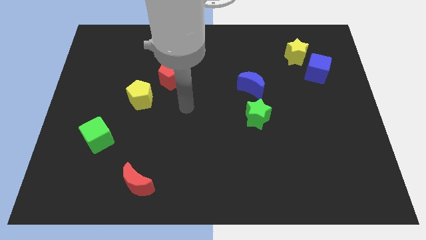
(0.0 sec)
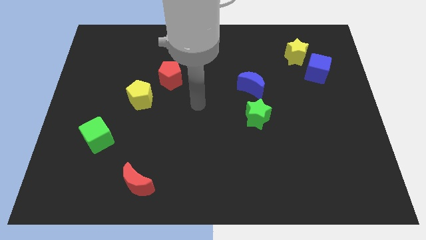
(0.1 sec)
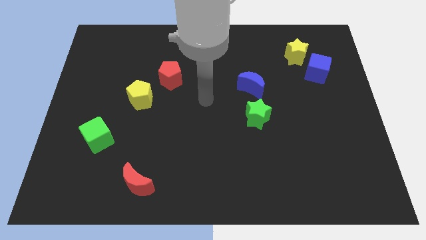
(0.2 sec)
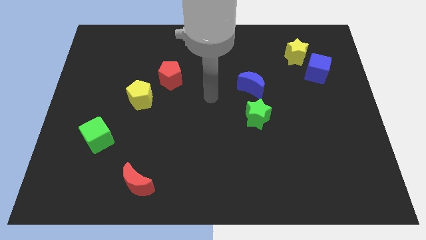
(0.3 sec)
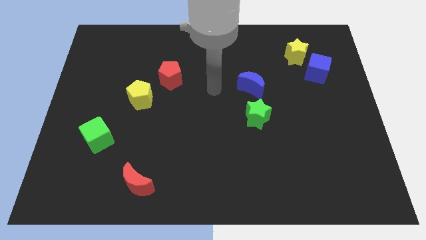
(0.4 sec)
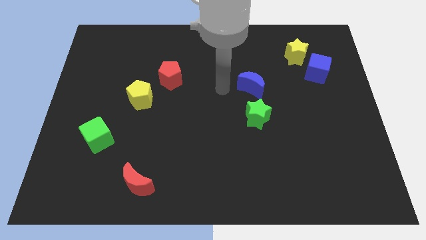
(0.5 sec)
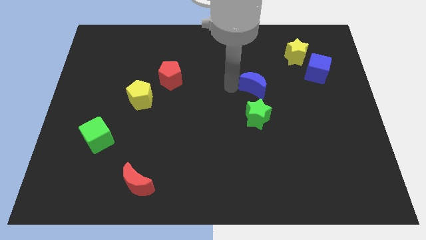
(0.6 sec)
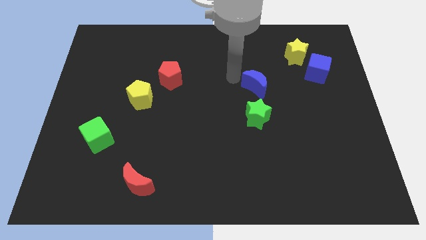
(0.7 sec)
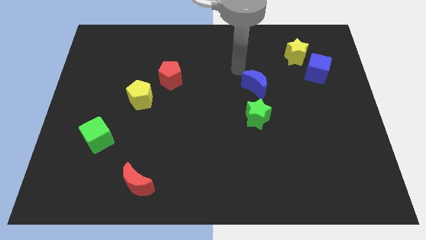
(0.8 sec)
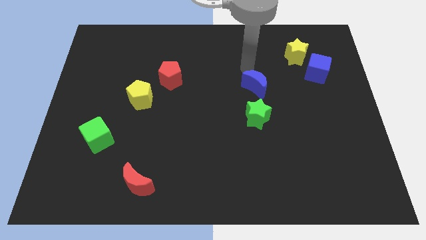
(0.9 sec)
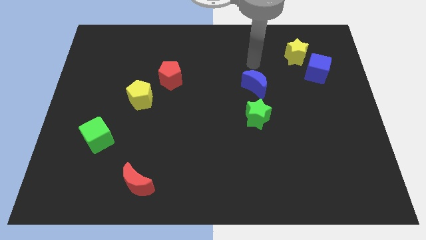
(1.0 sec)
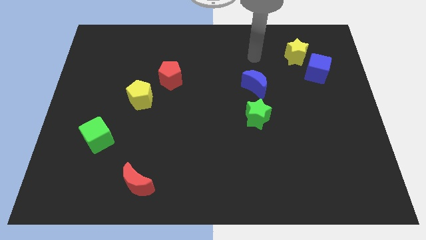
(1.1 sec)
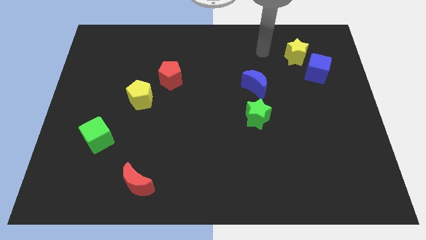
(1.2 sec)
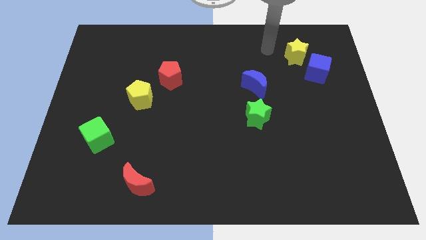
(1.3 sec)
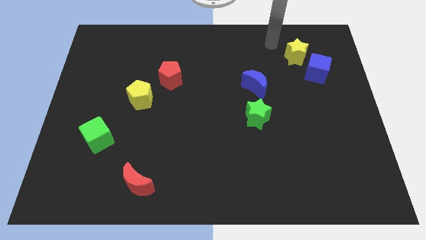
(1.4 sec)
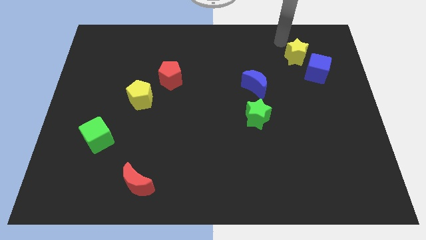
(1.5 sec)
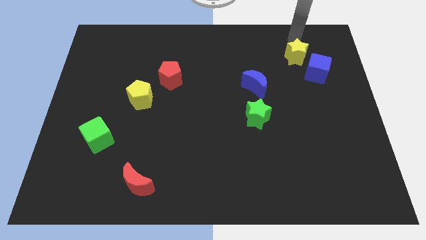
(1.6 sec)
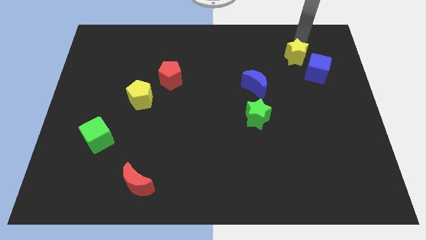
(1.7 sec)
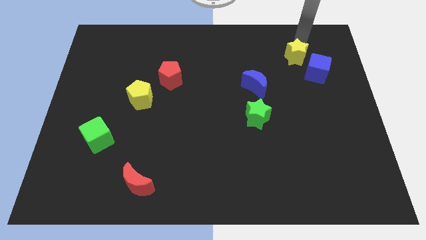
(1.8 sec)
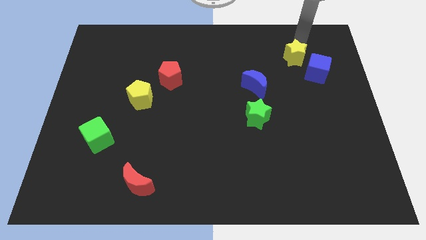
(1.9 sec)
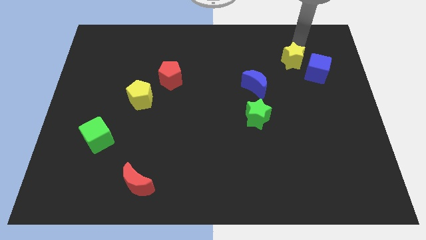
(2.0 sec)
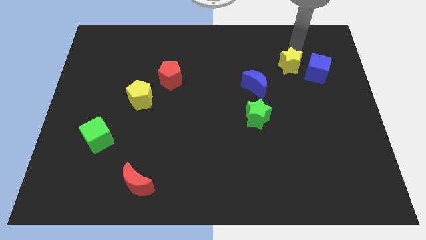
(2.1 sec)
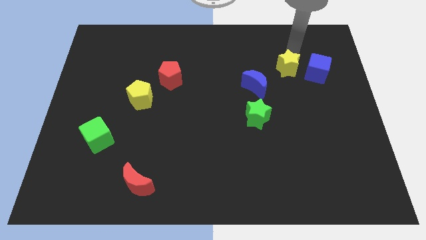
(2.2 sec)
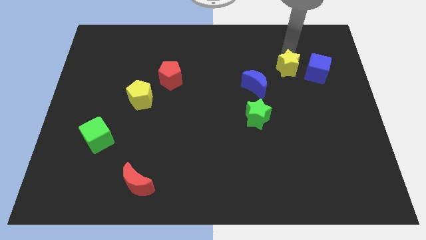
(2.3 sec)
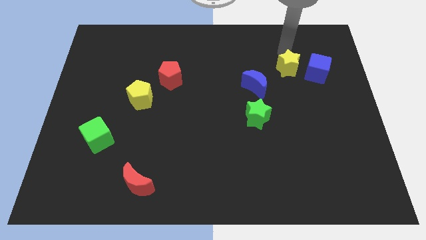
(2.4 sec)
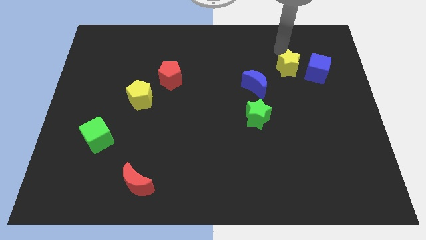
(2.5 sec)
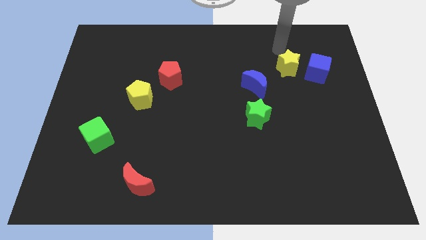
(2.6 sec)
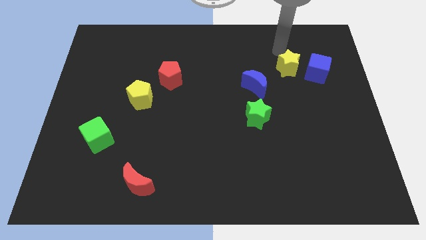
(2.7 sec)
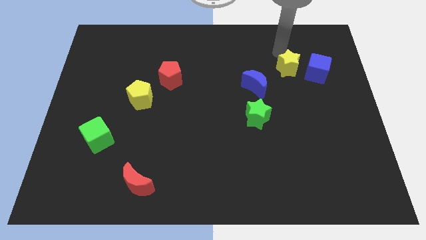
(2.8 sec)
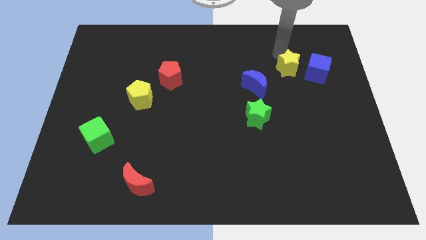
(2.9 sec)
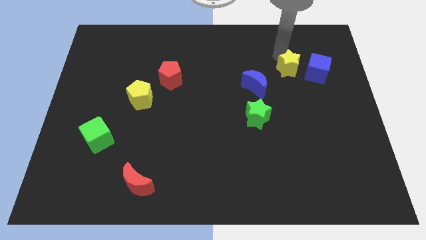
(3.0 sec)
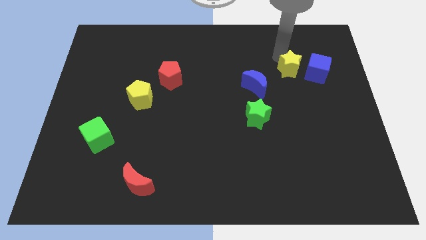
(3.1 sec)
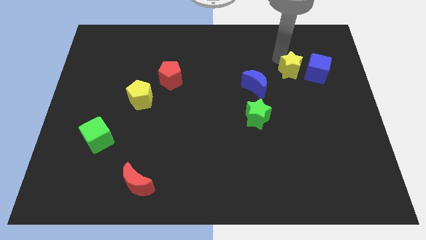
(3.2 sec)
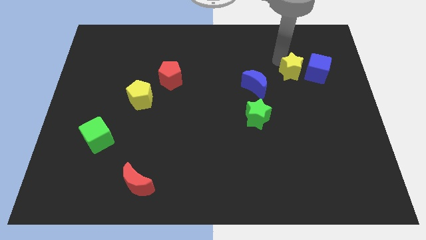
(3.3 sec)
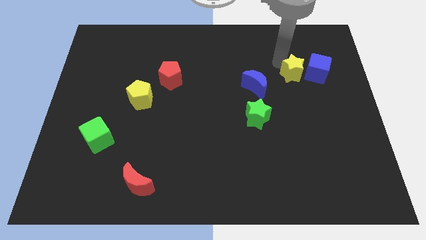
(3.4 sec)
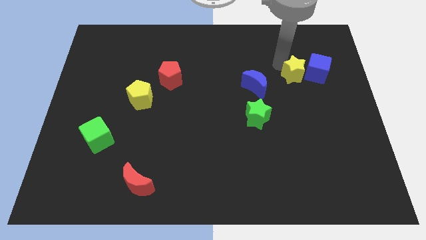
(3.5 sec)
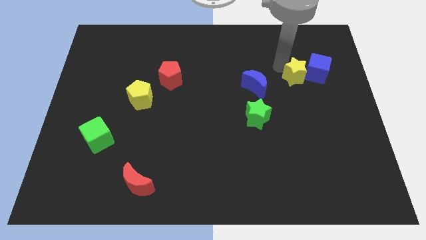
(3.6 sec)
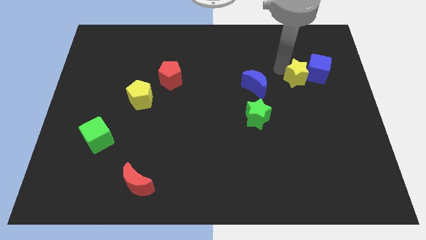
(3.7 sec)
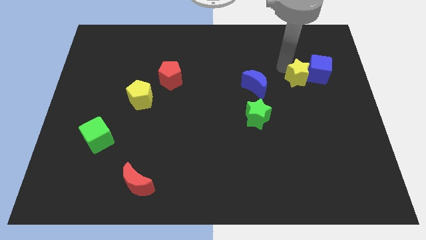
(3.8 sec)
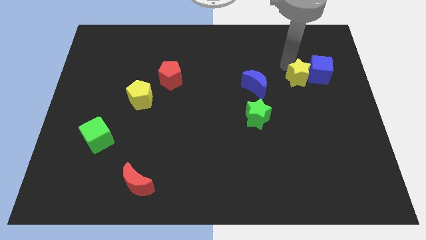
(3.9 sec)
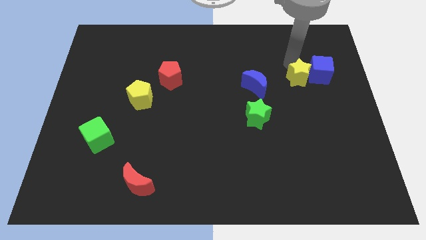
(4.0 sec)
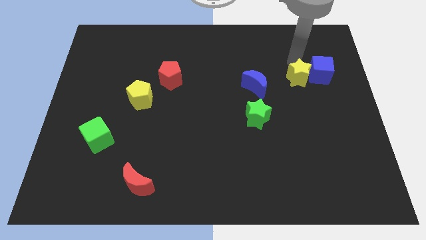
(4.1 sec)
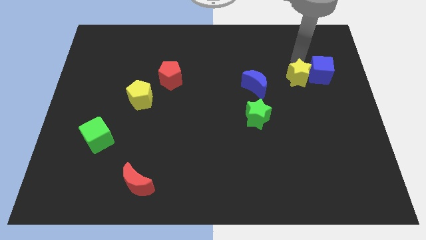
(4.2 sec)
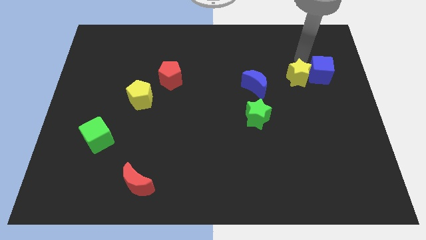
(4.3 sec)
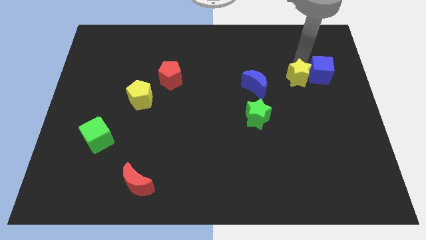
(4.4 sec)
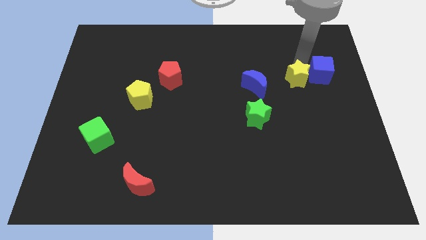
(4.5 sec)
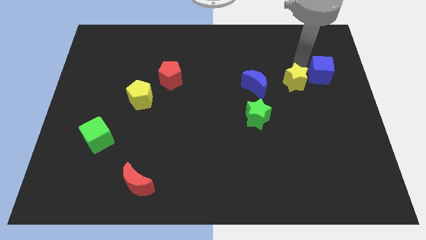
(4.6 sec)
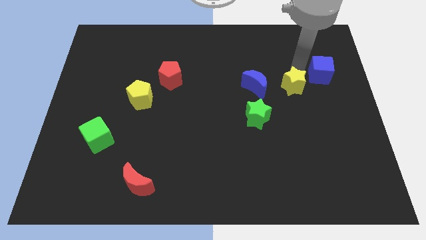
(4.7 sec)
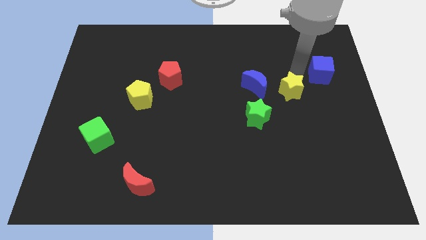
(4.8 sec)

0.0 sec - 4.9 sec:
push the yellow star to the bottom right of the blue moon

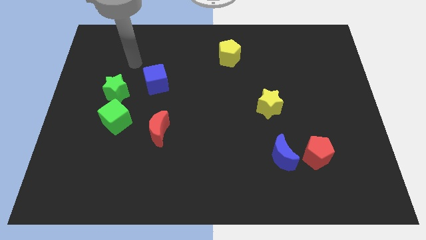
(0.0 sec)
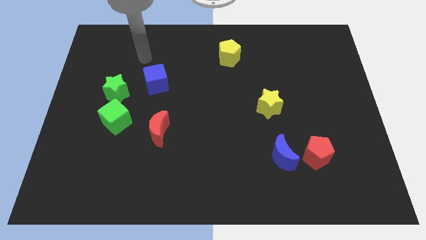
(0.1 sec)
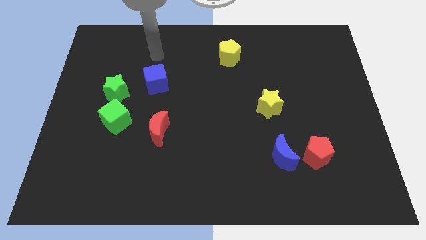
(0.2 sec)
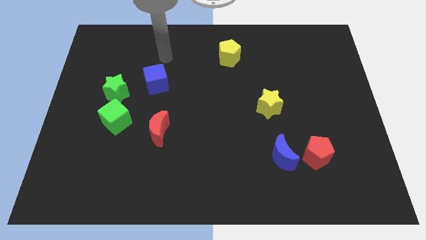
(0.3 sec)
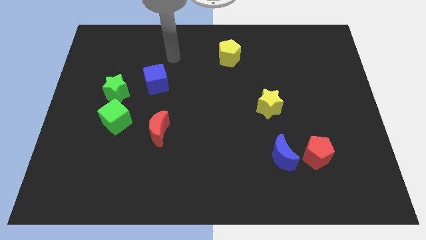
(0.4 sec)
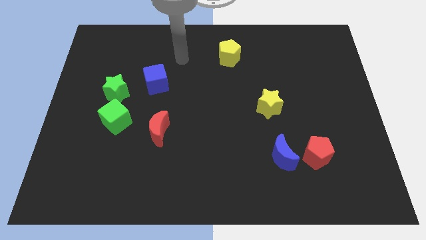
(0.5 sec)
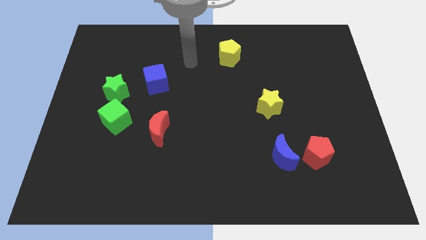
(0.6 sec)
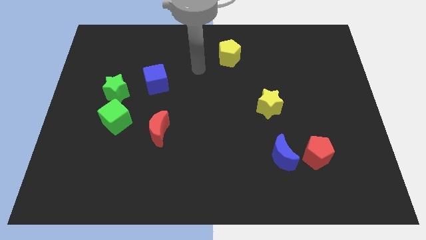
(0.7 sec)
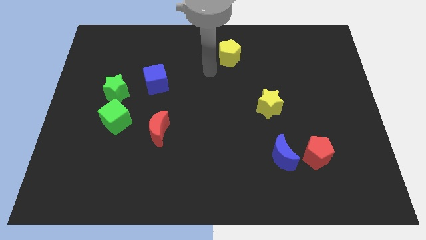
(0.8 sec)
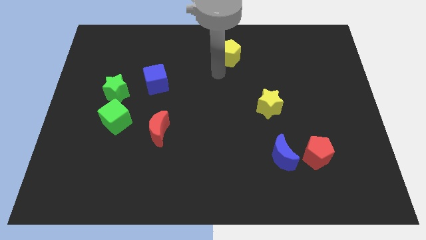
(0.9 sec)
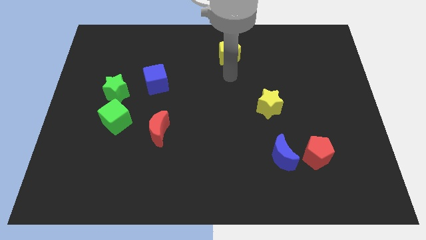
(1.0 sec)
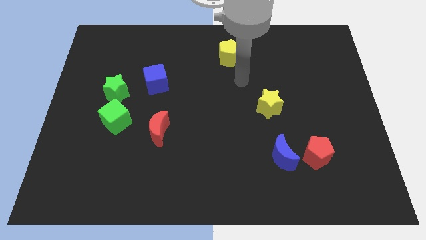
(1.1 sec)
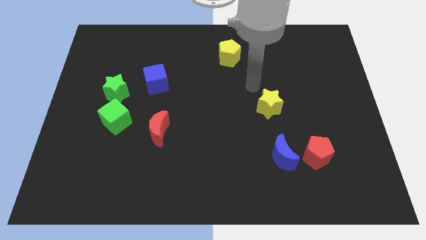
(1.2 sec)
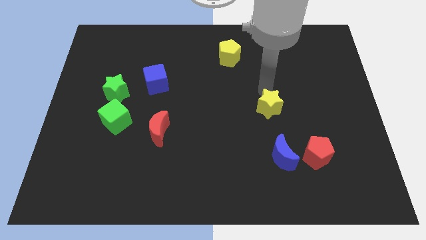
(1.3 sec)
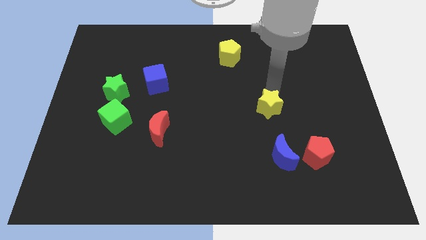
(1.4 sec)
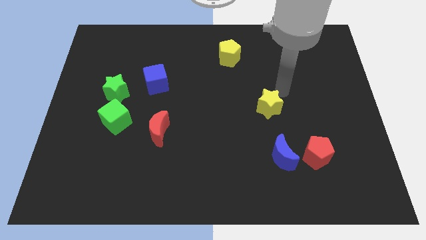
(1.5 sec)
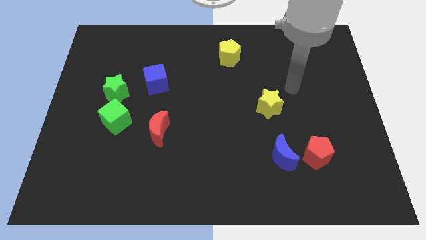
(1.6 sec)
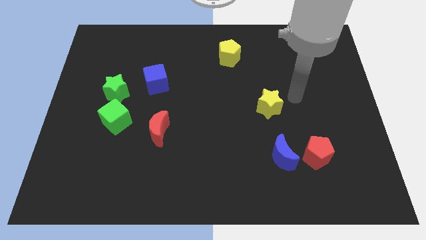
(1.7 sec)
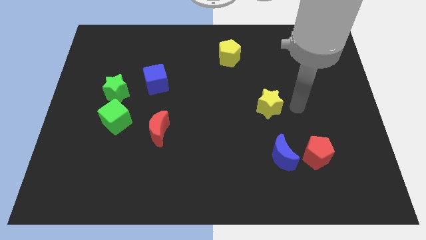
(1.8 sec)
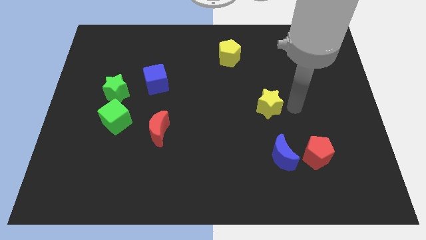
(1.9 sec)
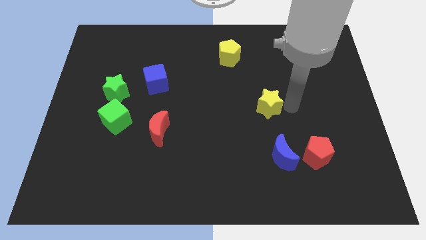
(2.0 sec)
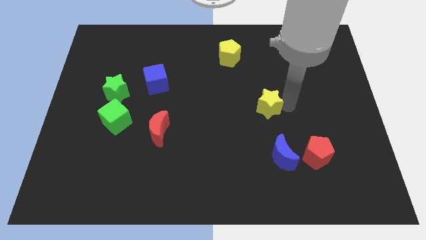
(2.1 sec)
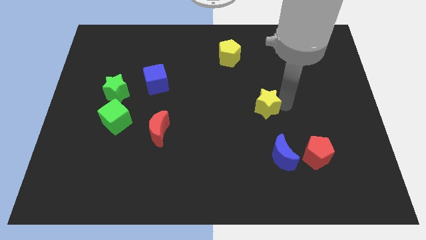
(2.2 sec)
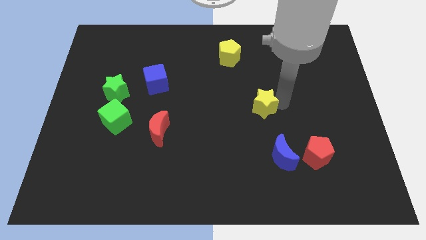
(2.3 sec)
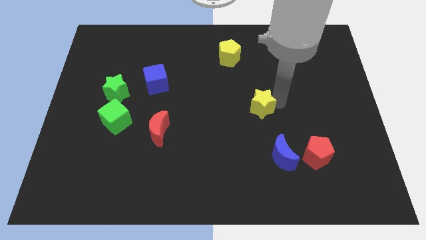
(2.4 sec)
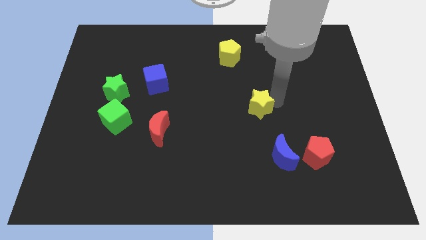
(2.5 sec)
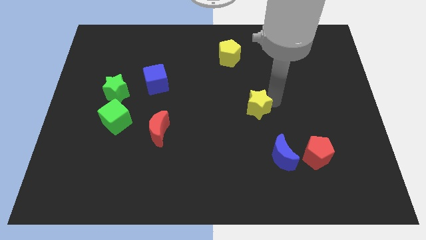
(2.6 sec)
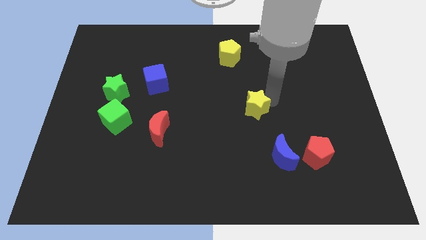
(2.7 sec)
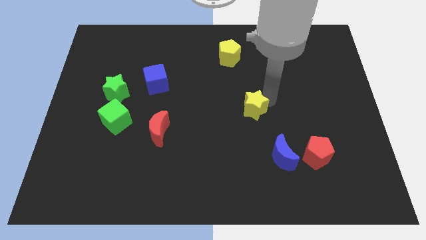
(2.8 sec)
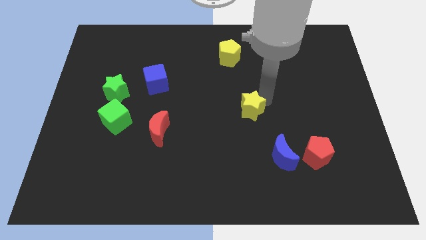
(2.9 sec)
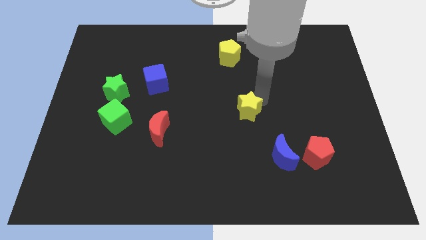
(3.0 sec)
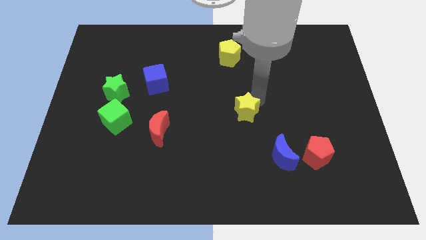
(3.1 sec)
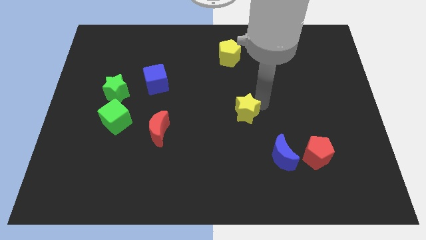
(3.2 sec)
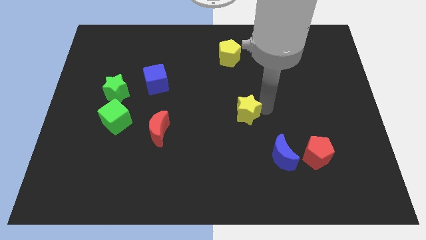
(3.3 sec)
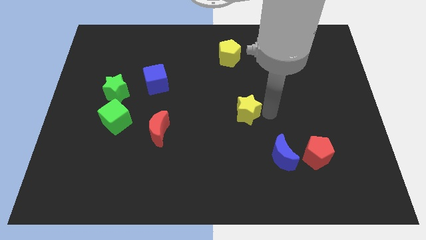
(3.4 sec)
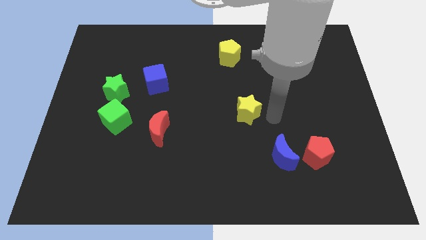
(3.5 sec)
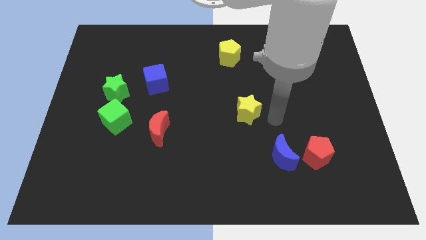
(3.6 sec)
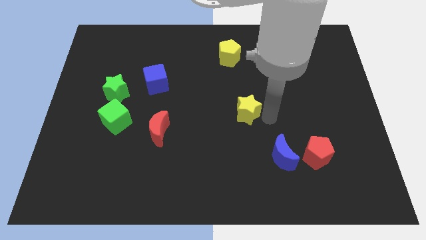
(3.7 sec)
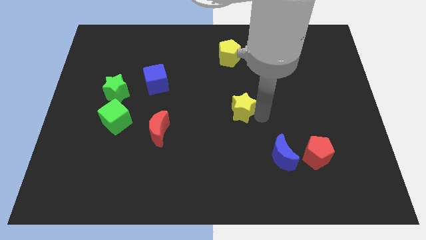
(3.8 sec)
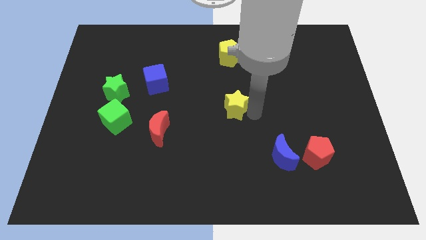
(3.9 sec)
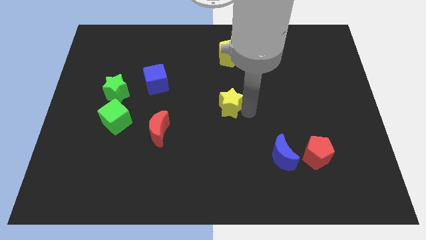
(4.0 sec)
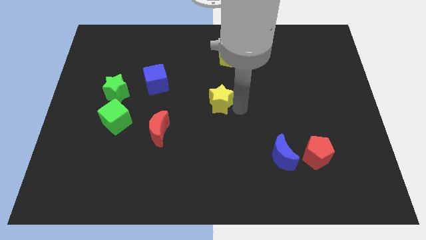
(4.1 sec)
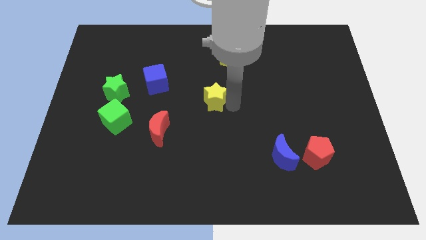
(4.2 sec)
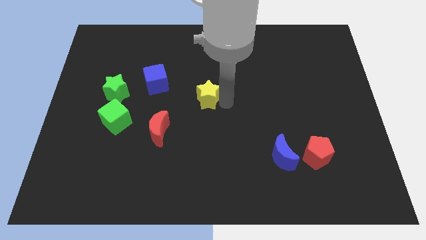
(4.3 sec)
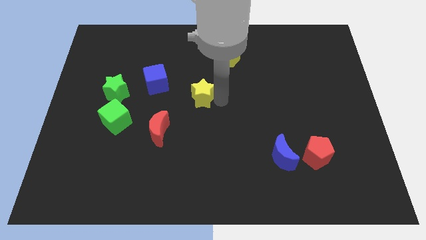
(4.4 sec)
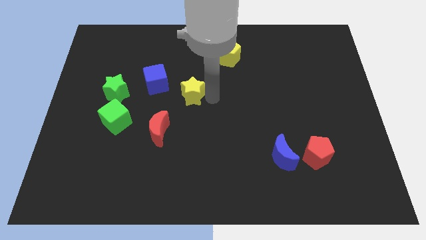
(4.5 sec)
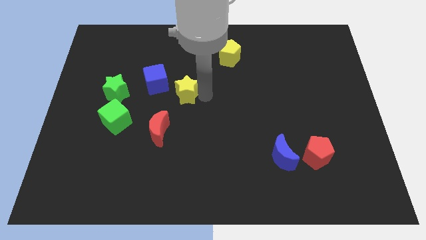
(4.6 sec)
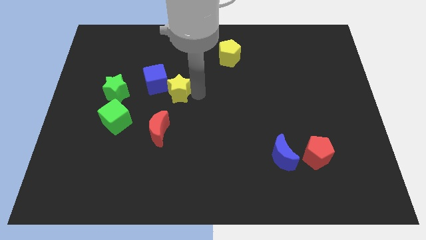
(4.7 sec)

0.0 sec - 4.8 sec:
move the yellow star above the red moon
